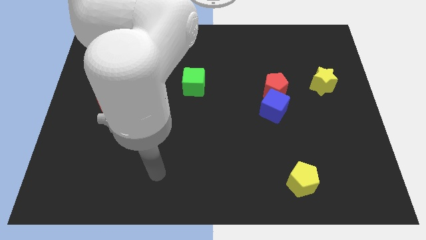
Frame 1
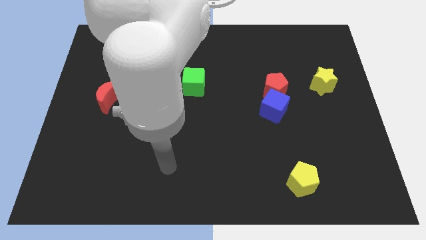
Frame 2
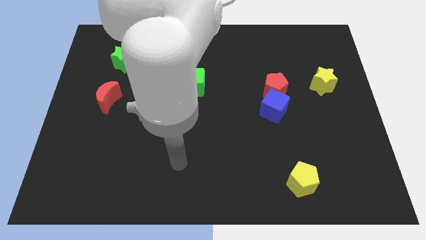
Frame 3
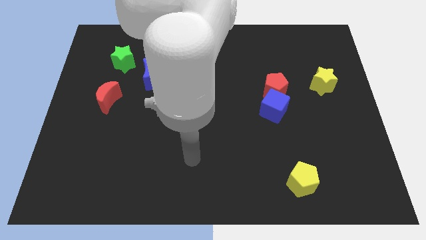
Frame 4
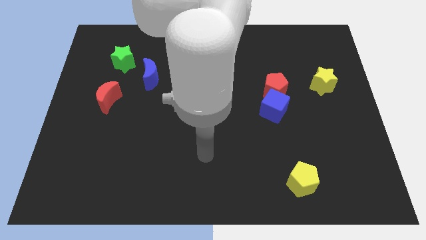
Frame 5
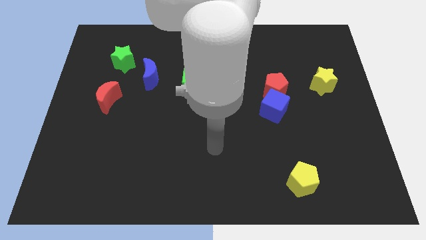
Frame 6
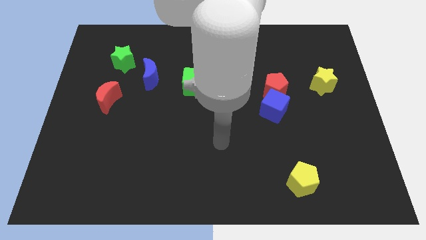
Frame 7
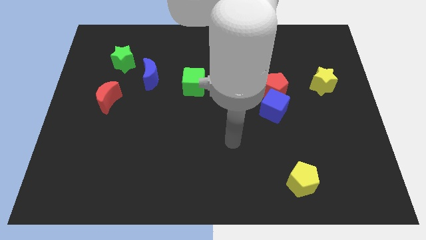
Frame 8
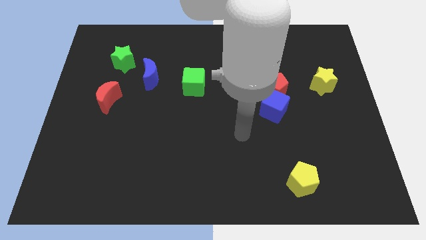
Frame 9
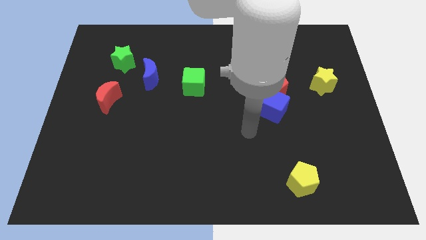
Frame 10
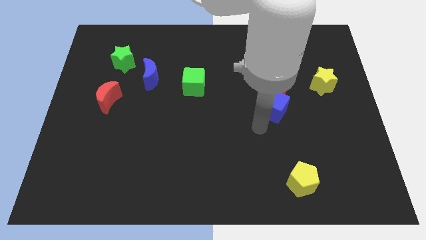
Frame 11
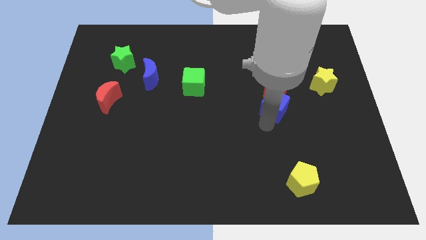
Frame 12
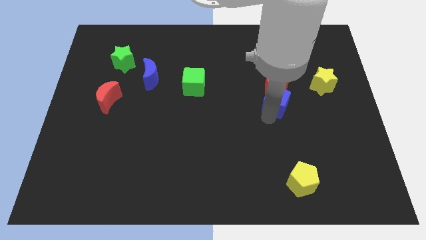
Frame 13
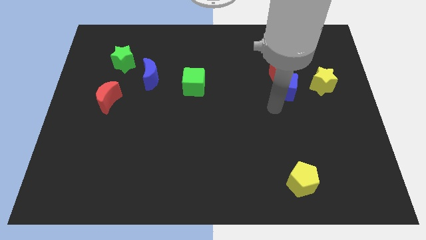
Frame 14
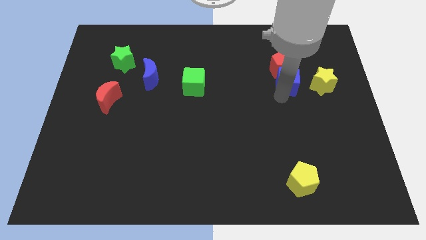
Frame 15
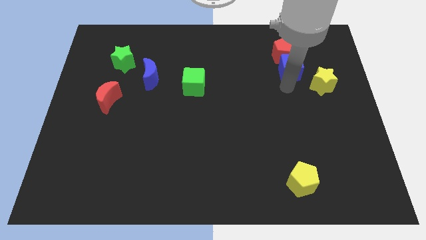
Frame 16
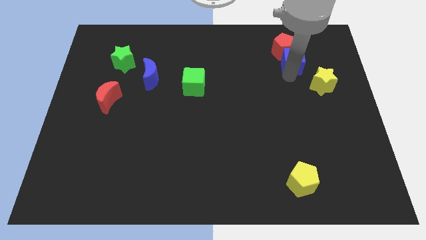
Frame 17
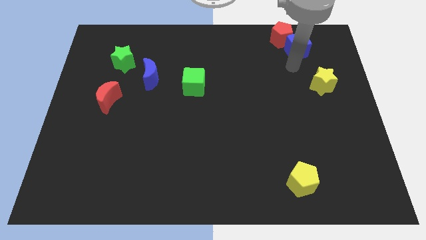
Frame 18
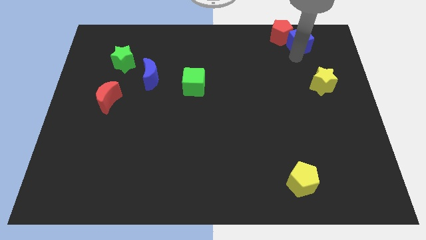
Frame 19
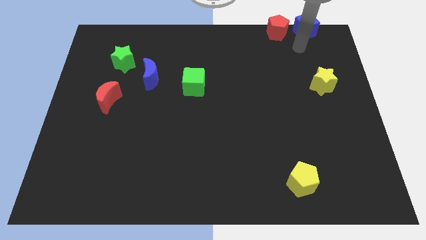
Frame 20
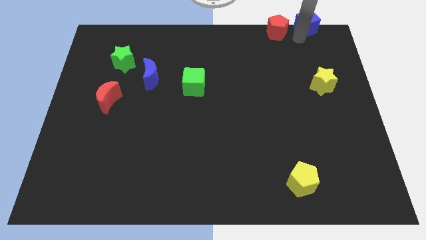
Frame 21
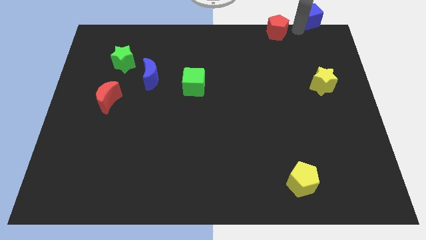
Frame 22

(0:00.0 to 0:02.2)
separate the red pentagon from the blue cube

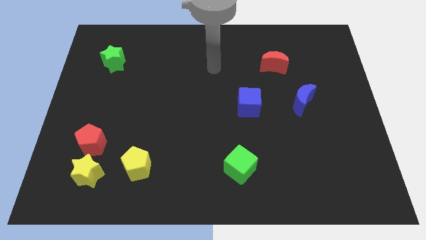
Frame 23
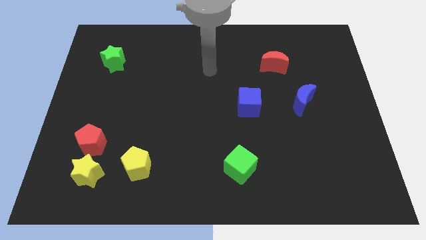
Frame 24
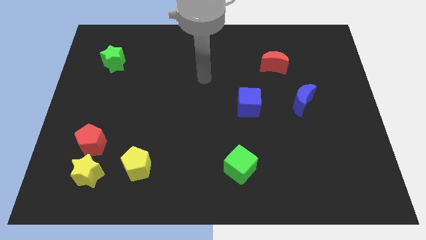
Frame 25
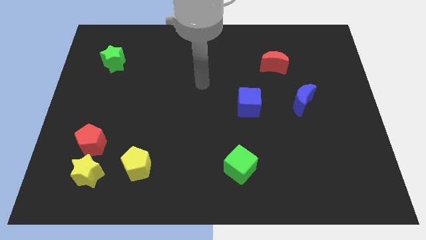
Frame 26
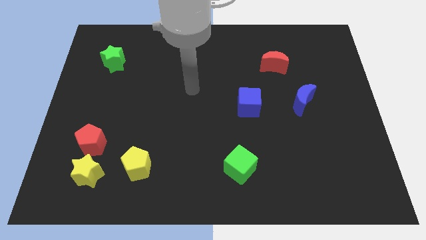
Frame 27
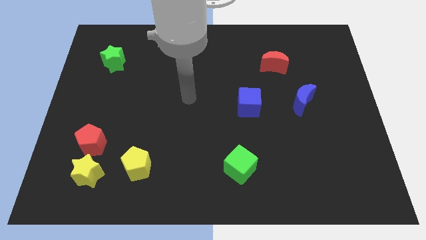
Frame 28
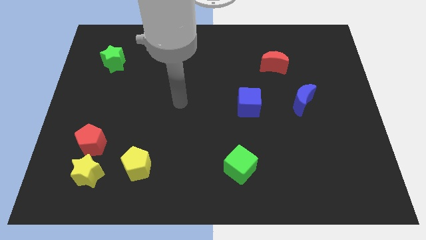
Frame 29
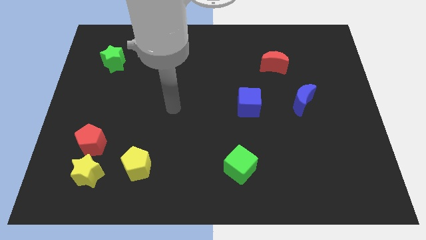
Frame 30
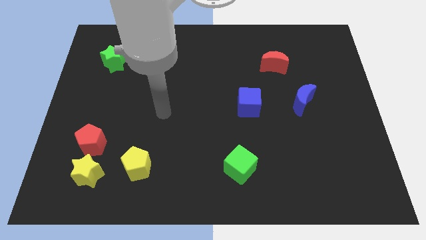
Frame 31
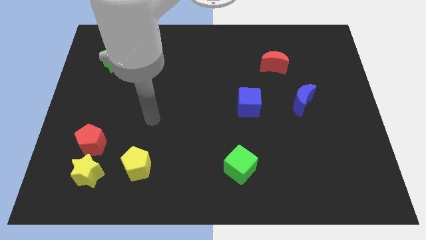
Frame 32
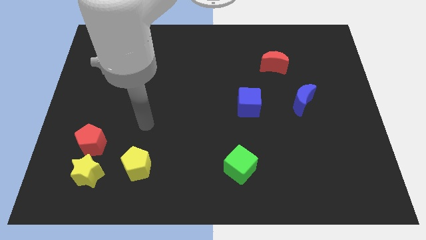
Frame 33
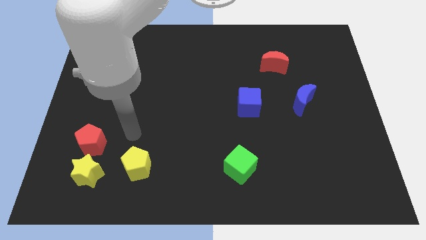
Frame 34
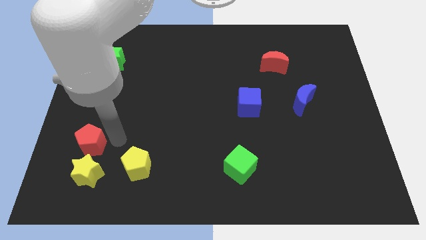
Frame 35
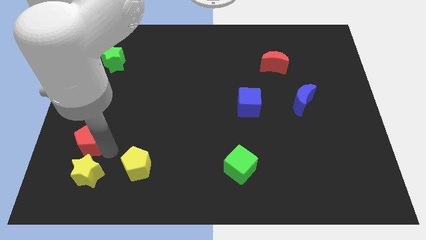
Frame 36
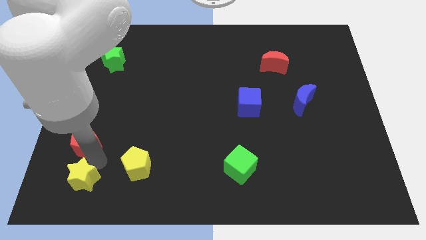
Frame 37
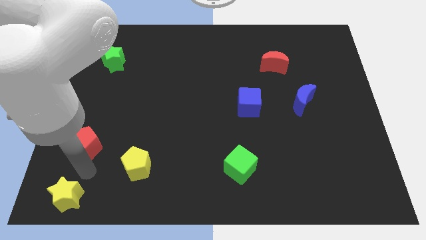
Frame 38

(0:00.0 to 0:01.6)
pull the red pentagon apart from the yellow star

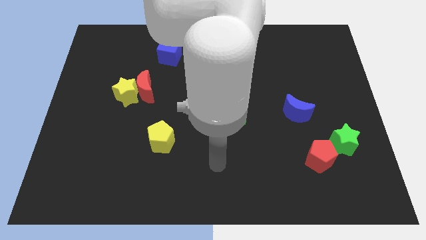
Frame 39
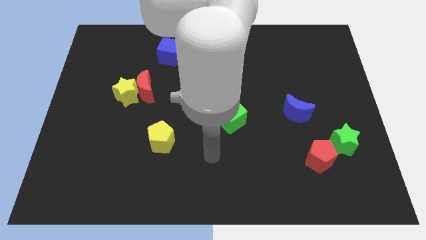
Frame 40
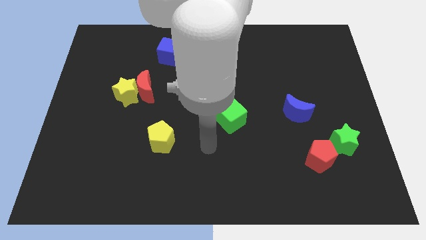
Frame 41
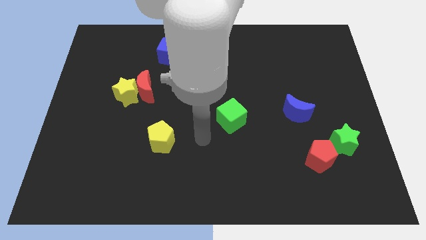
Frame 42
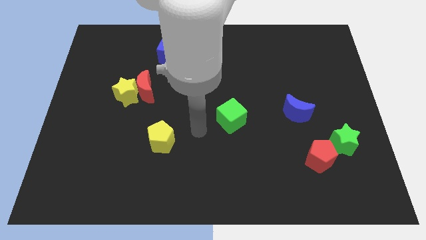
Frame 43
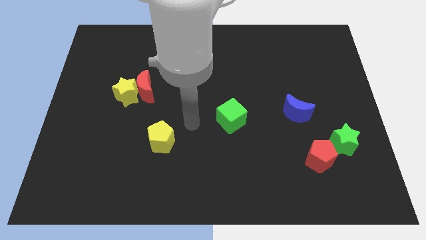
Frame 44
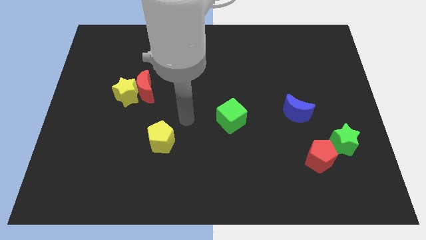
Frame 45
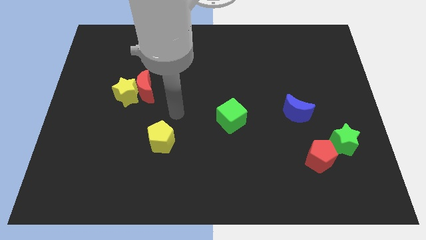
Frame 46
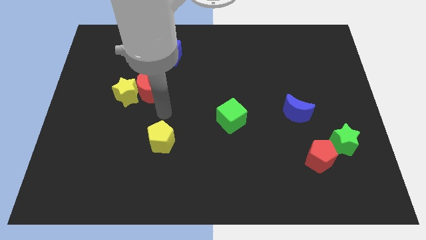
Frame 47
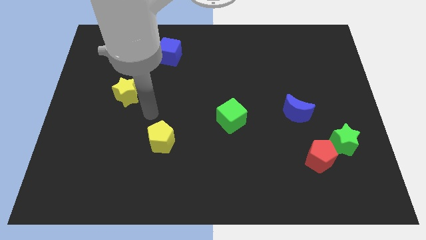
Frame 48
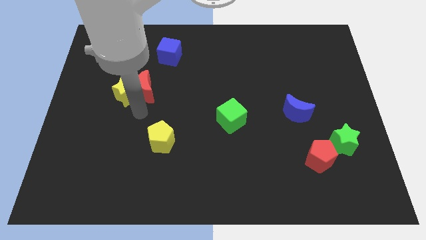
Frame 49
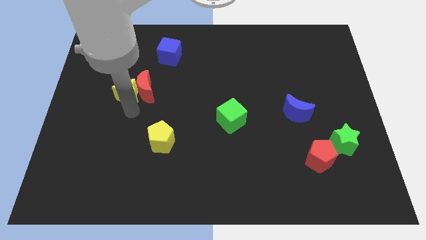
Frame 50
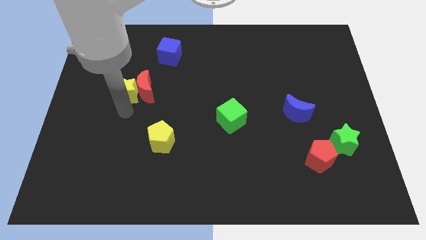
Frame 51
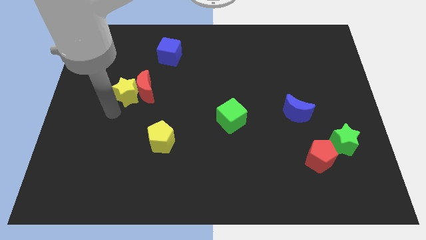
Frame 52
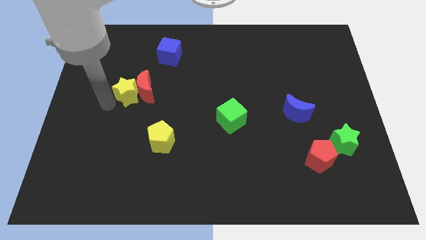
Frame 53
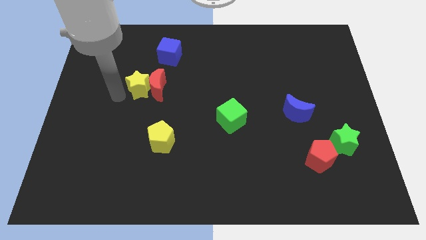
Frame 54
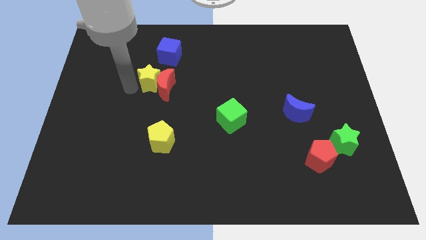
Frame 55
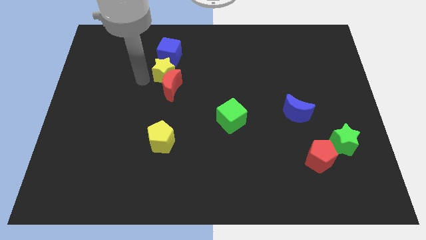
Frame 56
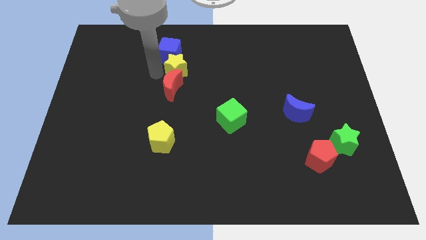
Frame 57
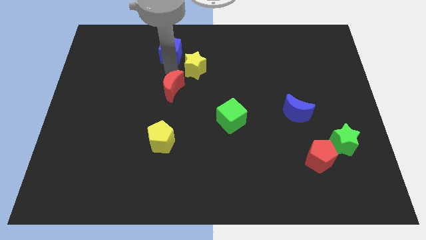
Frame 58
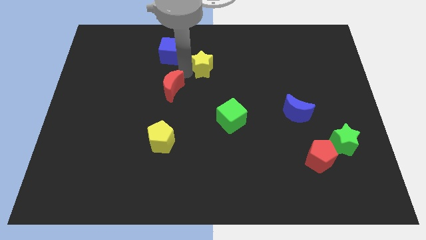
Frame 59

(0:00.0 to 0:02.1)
move the red moon away from the yellow star

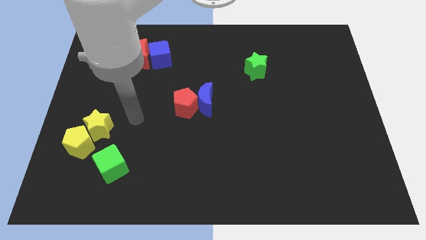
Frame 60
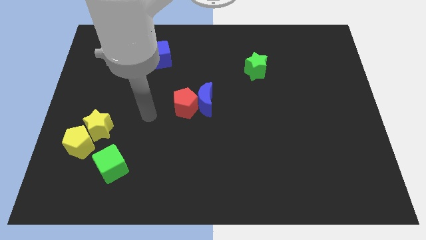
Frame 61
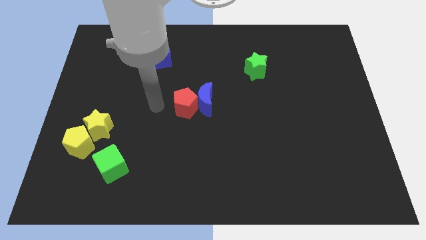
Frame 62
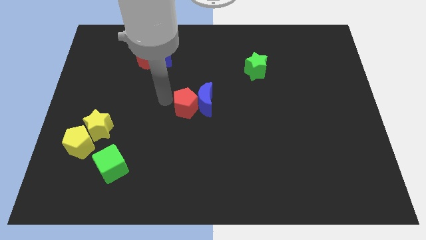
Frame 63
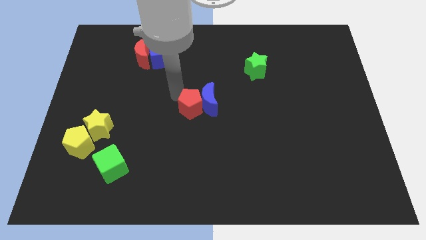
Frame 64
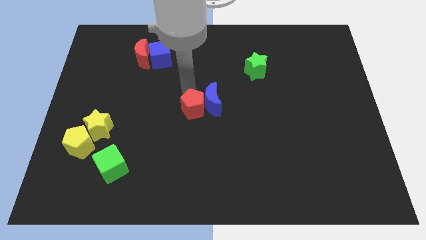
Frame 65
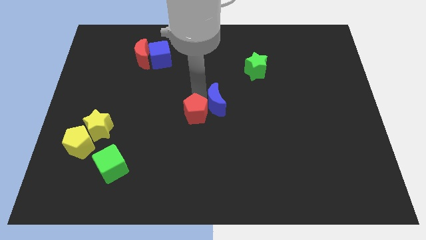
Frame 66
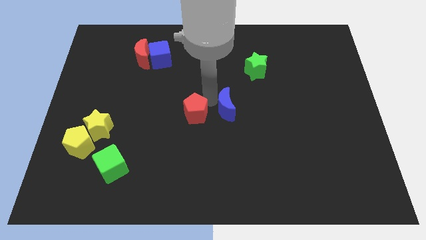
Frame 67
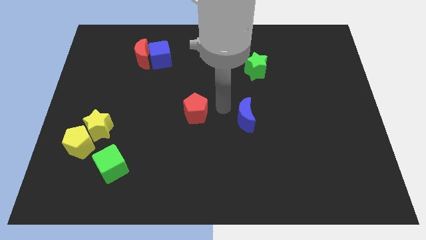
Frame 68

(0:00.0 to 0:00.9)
separate the red pentagon from the blue moon

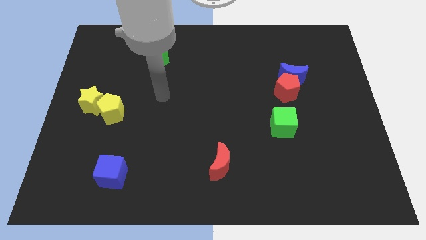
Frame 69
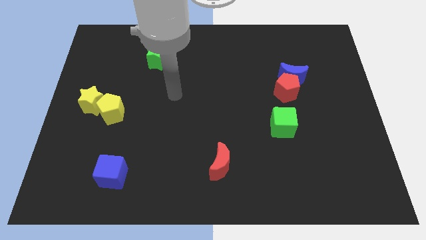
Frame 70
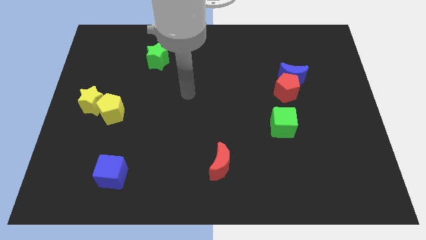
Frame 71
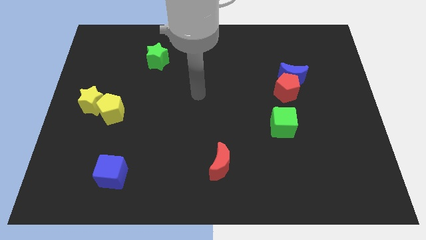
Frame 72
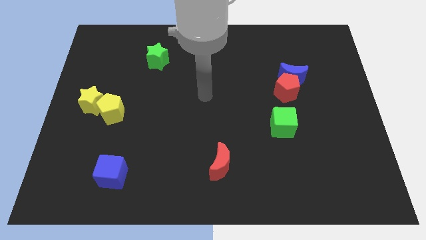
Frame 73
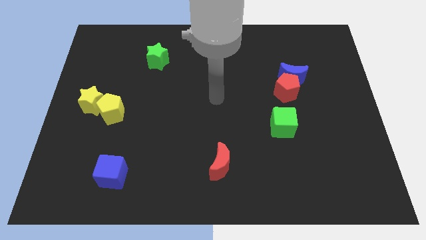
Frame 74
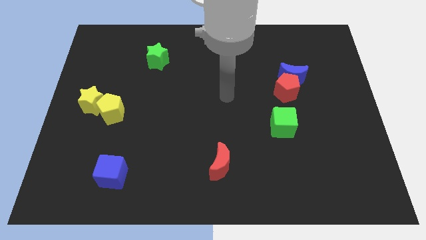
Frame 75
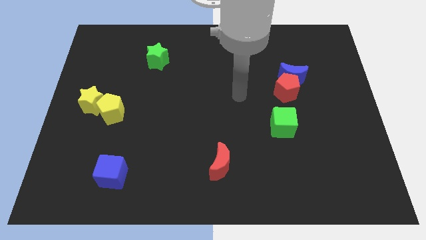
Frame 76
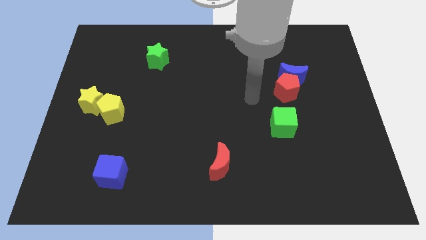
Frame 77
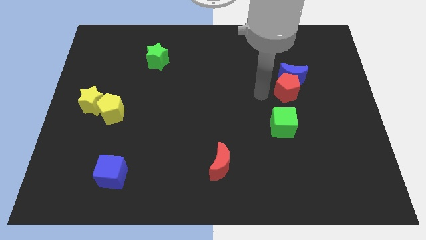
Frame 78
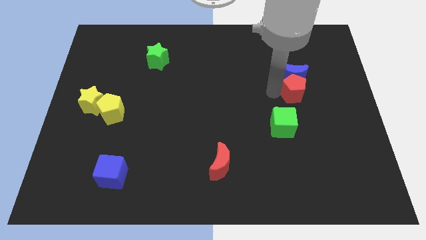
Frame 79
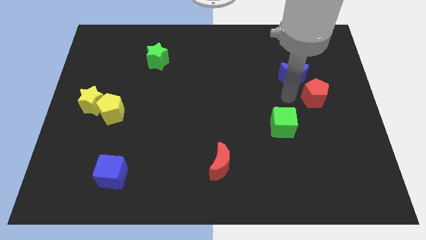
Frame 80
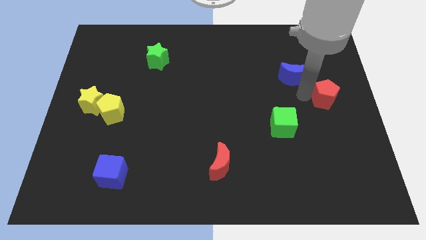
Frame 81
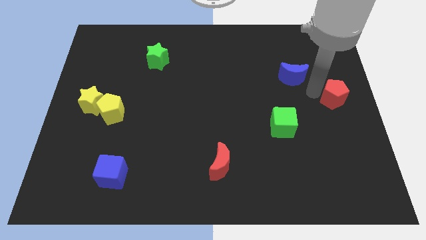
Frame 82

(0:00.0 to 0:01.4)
separate the blue moon from the red pentagon

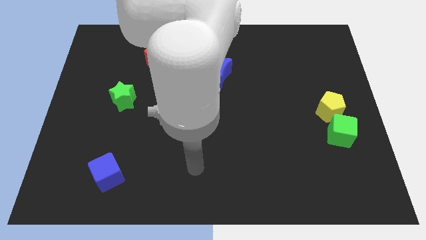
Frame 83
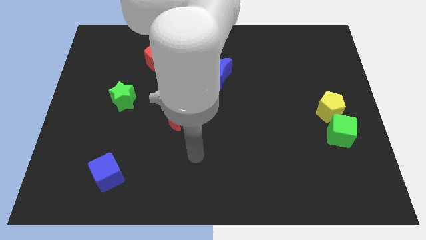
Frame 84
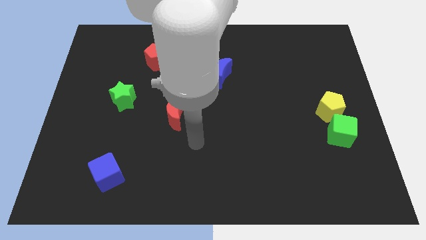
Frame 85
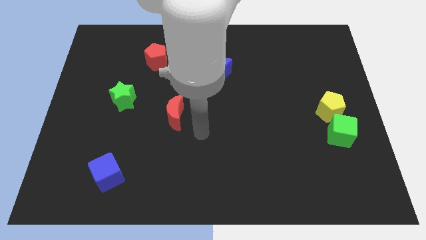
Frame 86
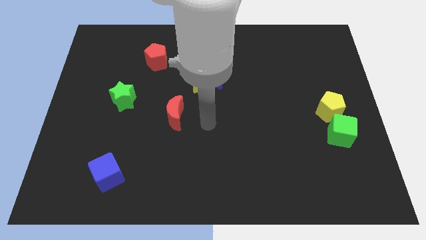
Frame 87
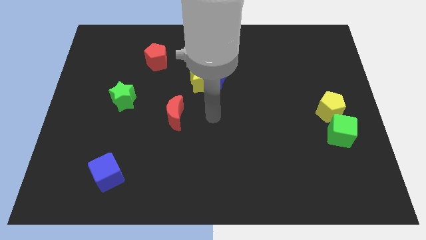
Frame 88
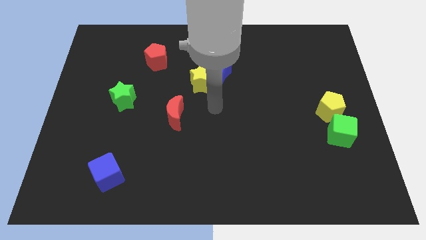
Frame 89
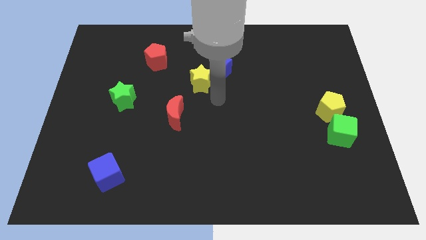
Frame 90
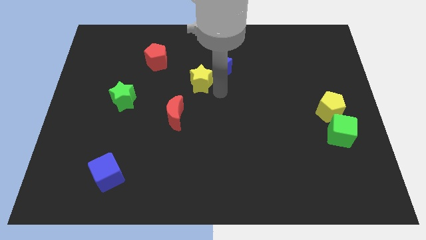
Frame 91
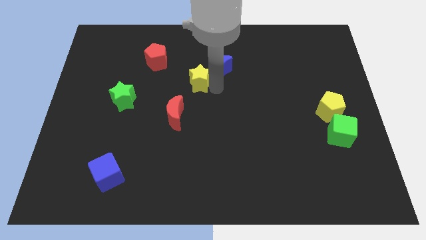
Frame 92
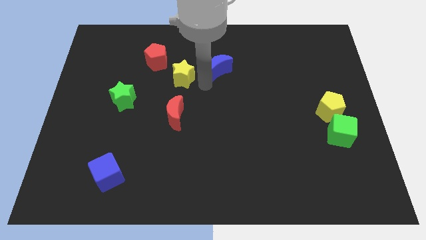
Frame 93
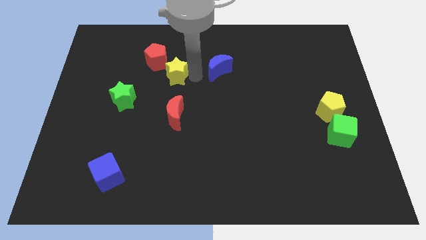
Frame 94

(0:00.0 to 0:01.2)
pull the blue moon apart from the yellow star

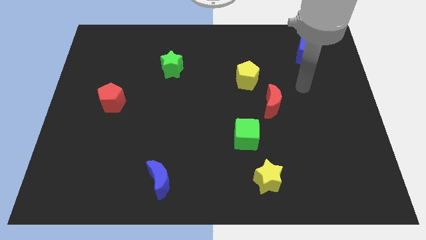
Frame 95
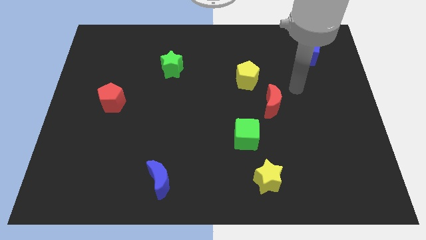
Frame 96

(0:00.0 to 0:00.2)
separate the red moon from the yellow pentagon
